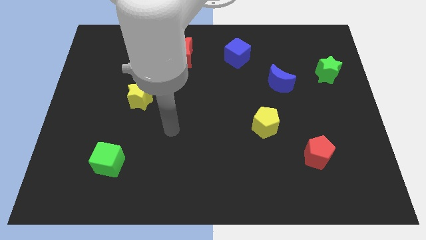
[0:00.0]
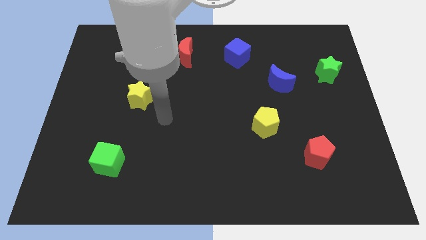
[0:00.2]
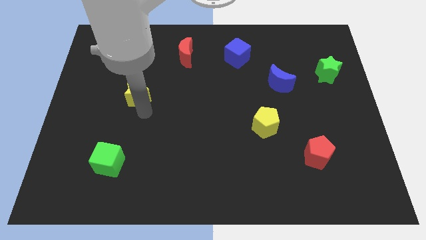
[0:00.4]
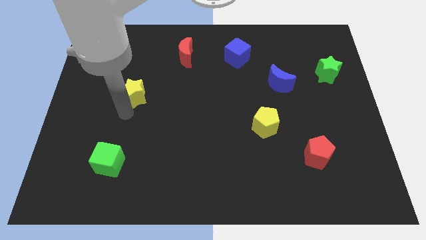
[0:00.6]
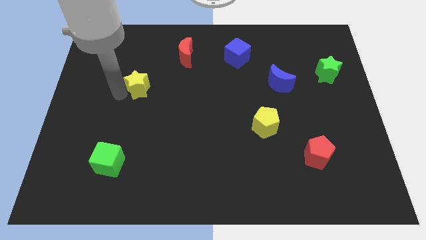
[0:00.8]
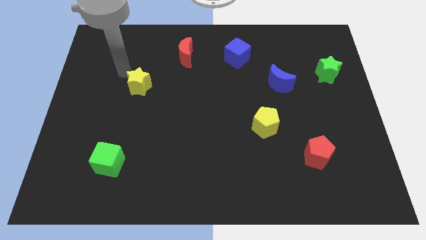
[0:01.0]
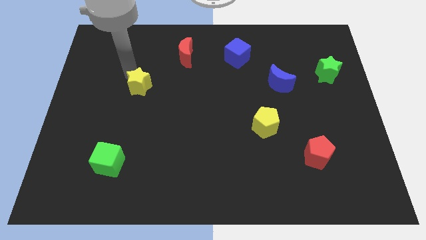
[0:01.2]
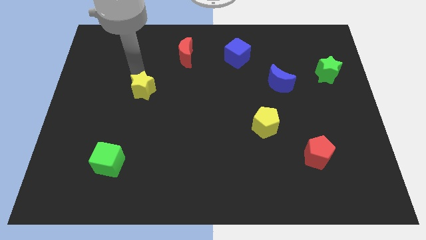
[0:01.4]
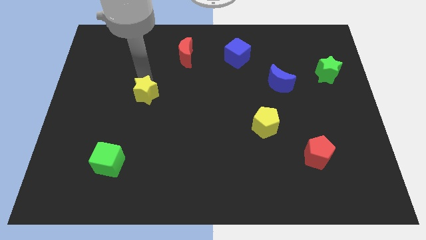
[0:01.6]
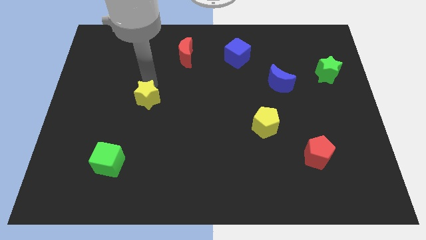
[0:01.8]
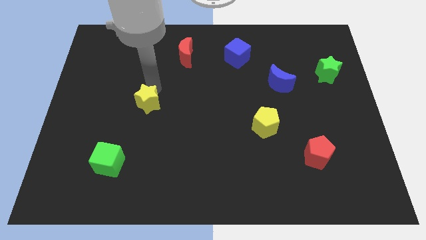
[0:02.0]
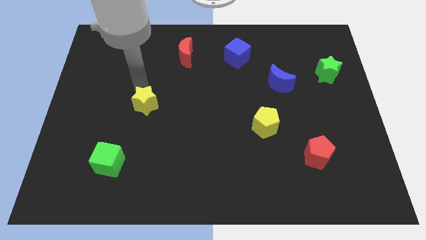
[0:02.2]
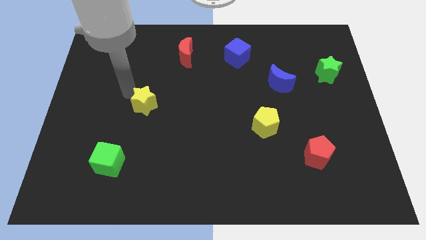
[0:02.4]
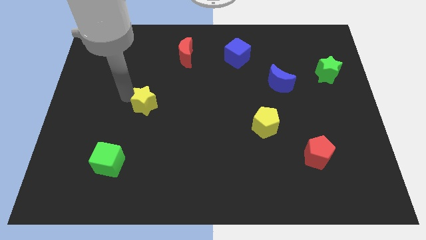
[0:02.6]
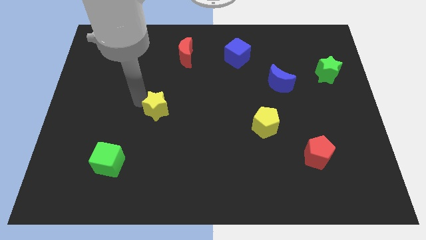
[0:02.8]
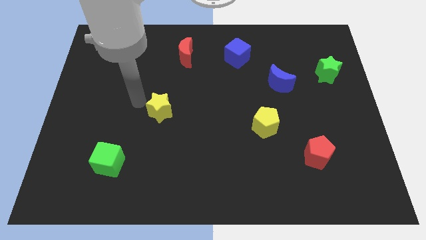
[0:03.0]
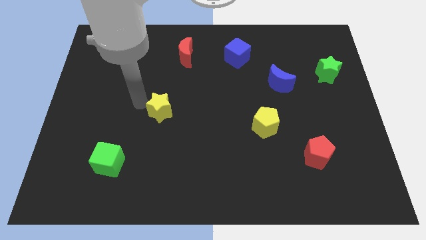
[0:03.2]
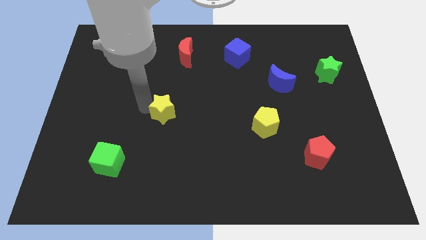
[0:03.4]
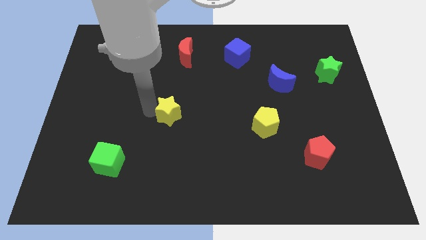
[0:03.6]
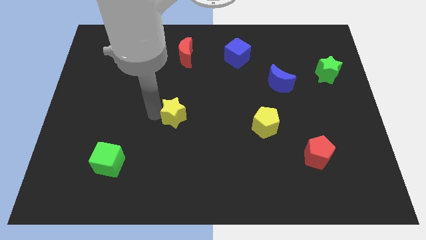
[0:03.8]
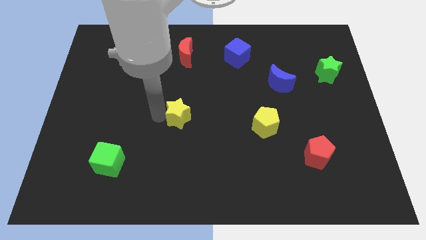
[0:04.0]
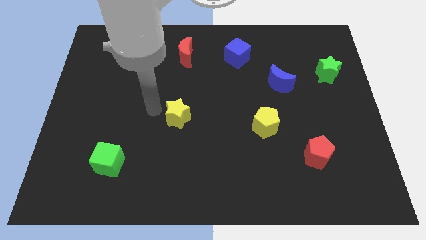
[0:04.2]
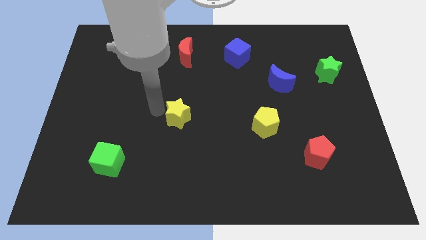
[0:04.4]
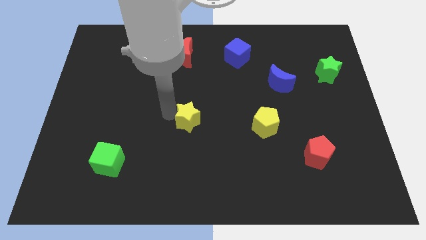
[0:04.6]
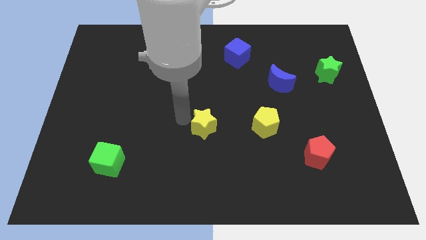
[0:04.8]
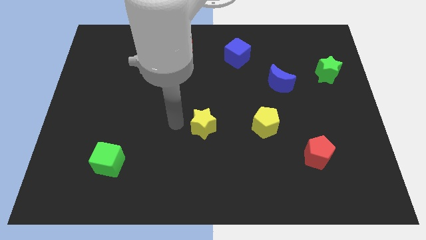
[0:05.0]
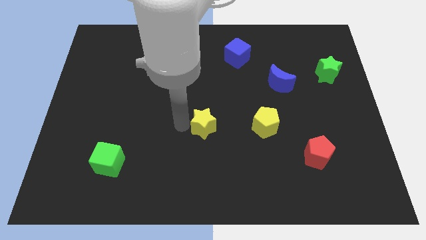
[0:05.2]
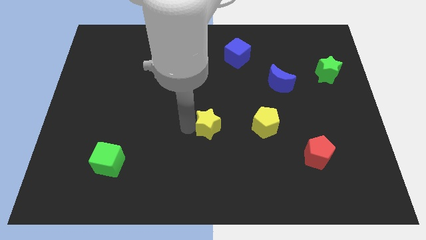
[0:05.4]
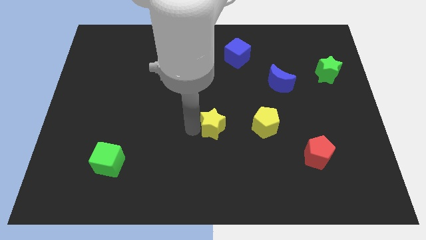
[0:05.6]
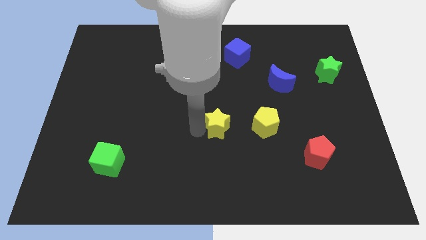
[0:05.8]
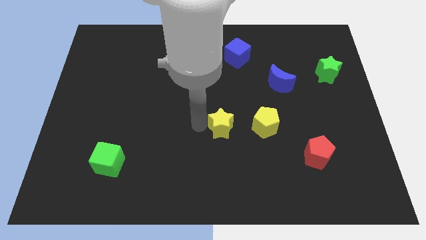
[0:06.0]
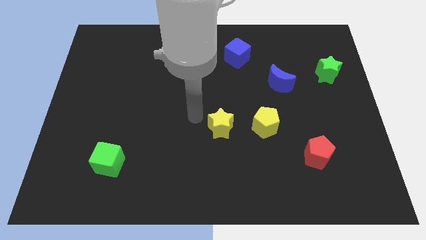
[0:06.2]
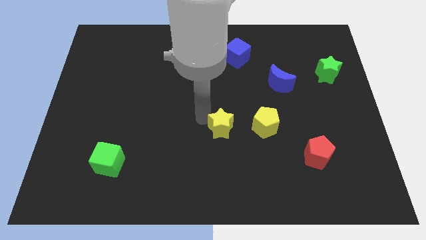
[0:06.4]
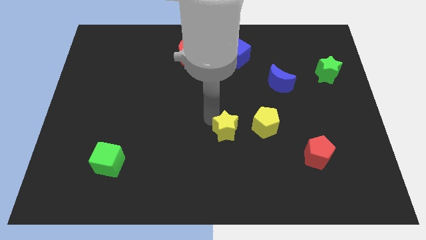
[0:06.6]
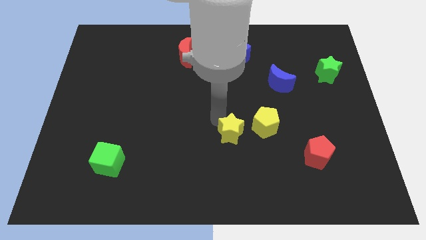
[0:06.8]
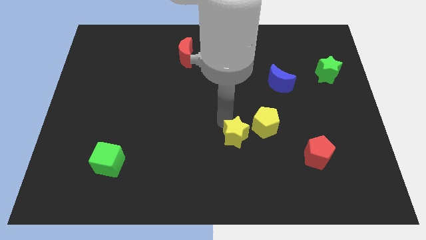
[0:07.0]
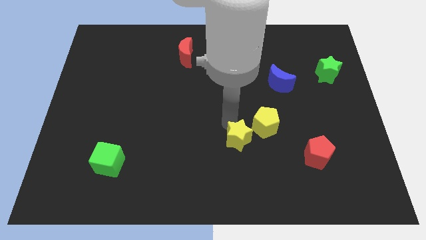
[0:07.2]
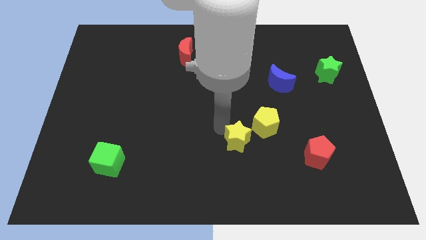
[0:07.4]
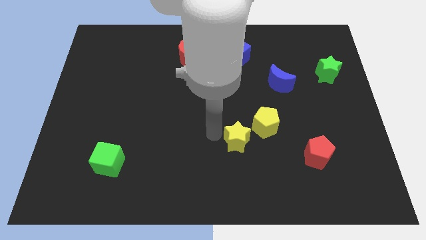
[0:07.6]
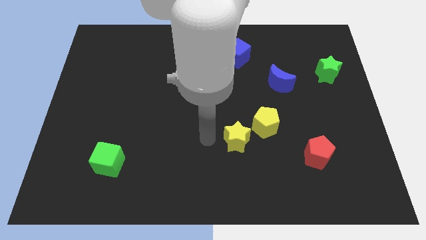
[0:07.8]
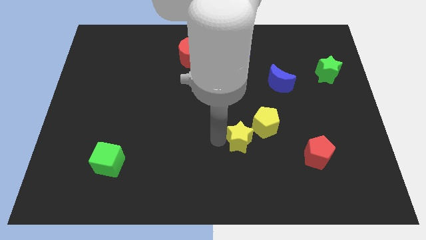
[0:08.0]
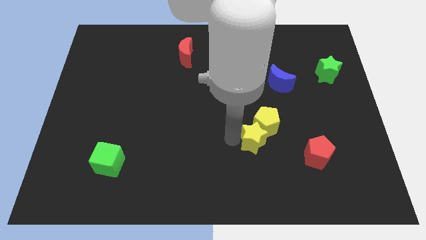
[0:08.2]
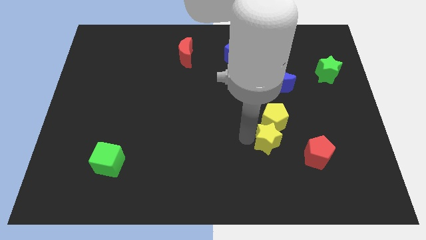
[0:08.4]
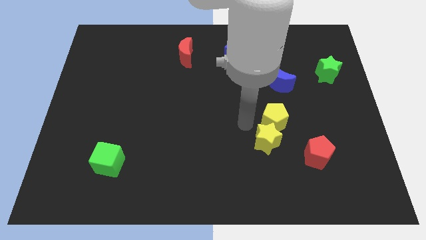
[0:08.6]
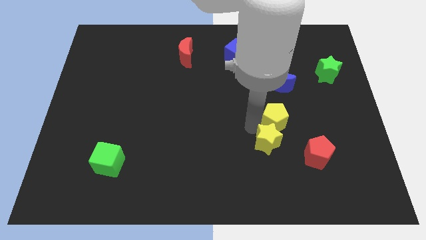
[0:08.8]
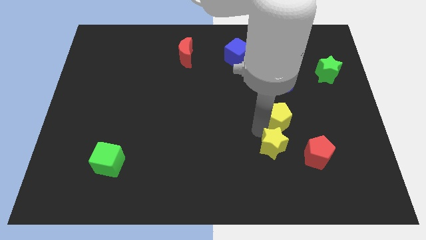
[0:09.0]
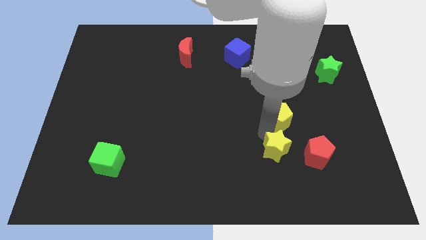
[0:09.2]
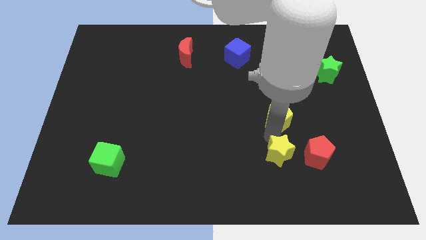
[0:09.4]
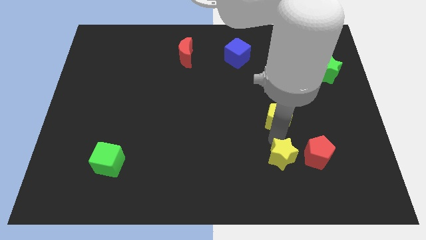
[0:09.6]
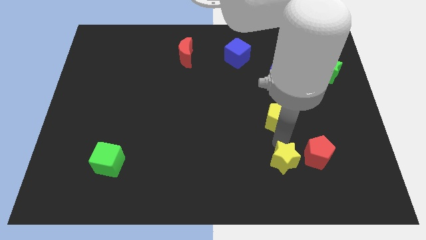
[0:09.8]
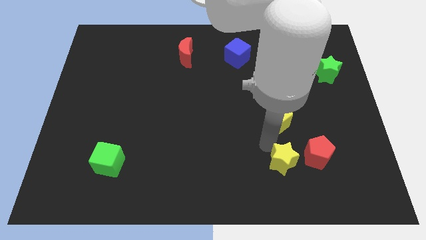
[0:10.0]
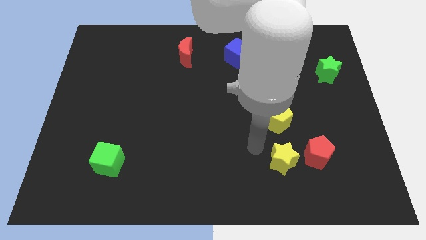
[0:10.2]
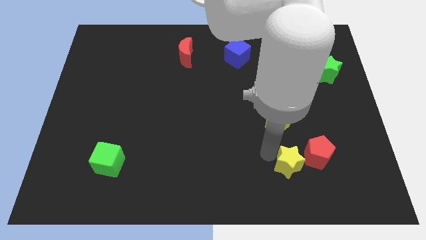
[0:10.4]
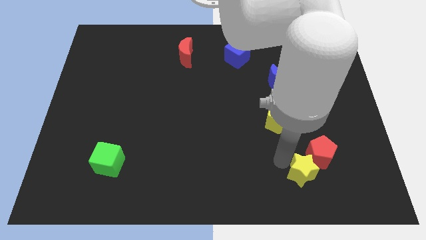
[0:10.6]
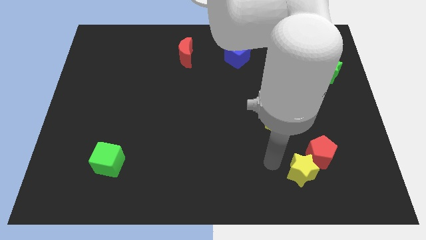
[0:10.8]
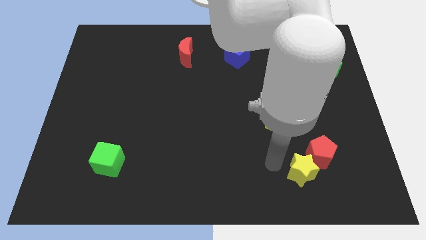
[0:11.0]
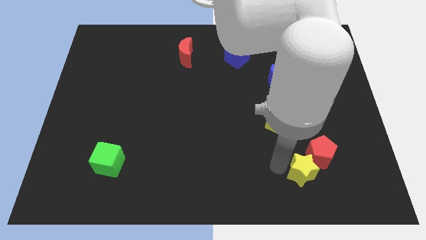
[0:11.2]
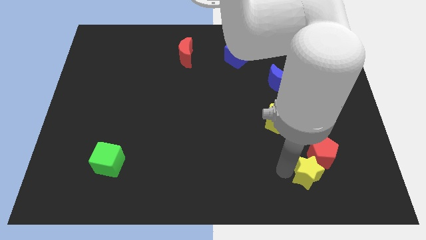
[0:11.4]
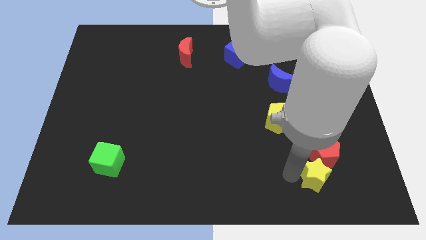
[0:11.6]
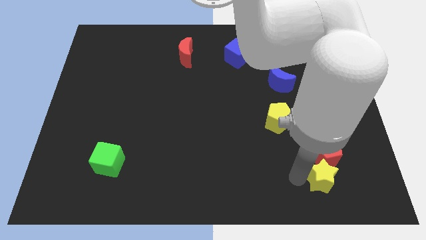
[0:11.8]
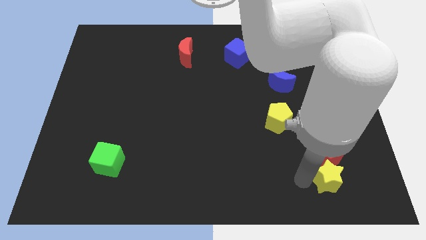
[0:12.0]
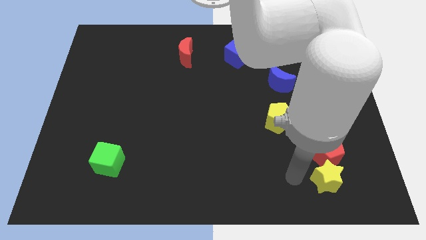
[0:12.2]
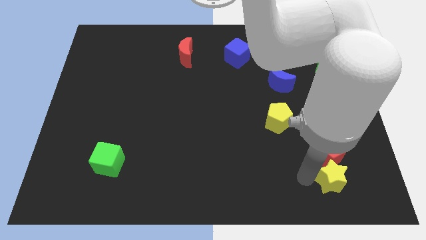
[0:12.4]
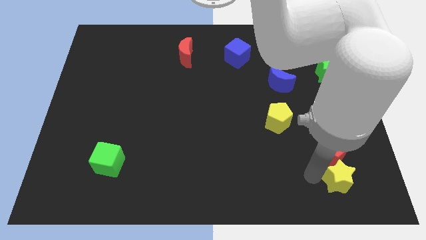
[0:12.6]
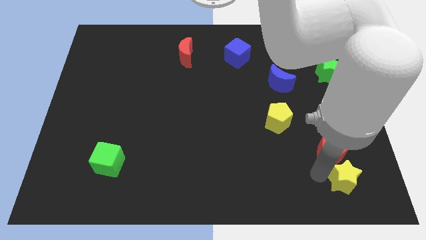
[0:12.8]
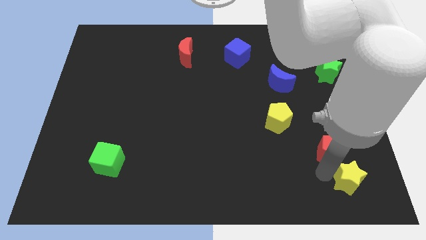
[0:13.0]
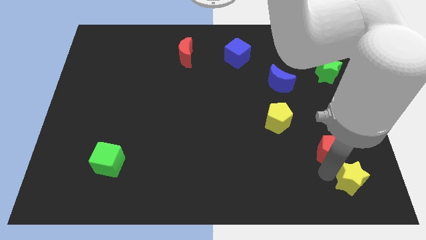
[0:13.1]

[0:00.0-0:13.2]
slide the yellow star to the bottom right
